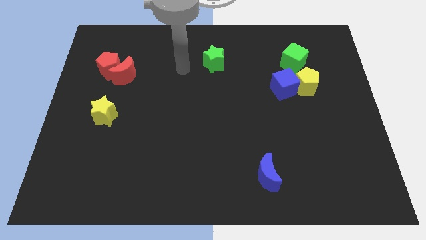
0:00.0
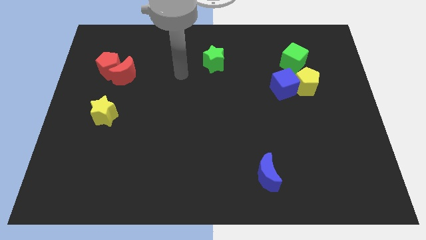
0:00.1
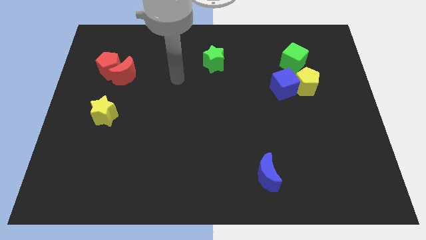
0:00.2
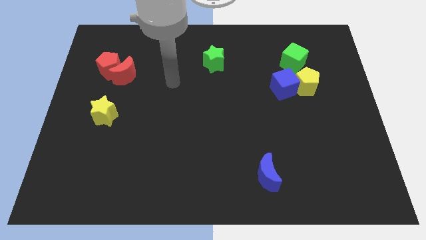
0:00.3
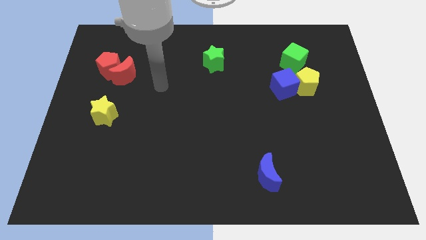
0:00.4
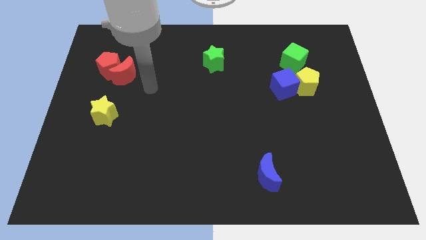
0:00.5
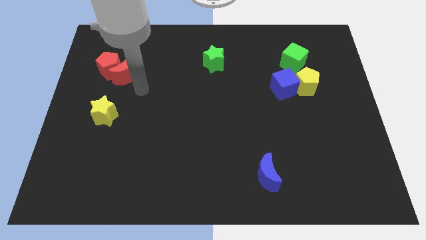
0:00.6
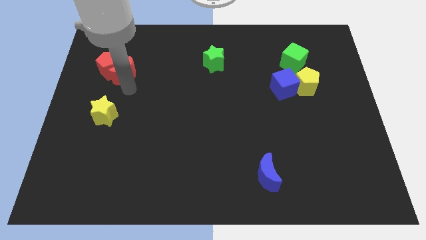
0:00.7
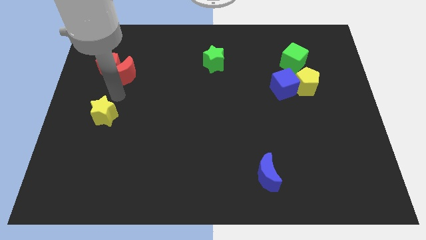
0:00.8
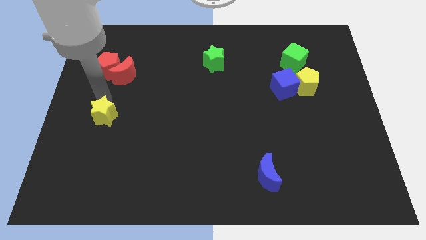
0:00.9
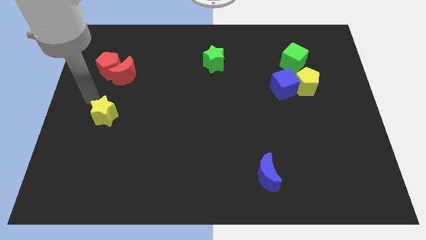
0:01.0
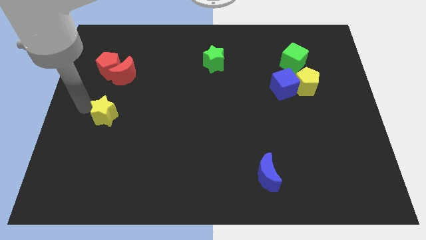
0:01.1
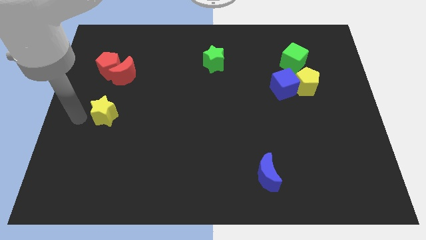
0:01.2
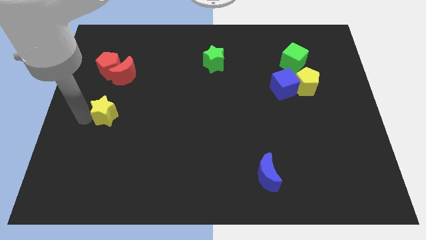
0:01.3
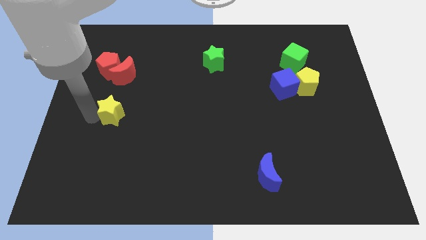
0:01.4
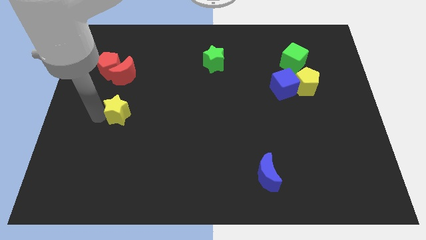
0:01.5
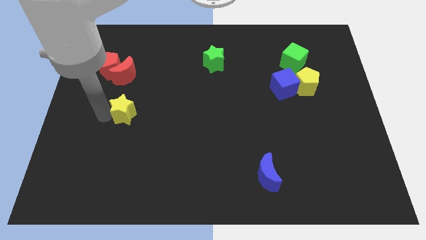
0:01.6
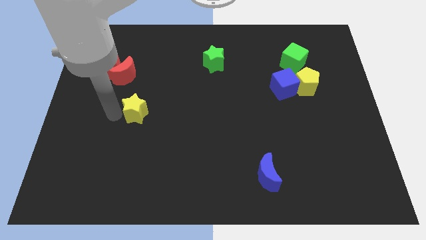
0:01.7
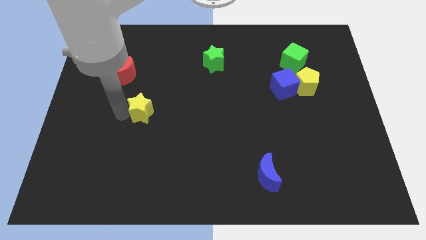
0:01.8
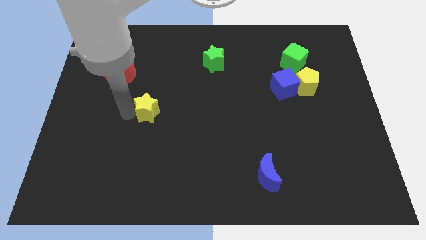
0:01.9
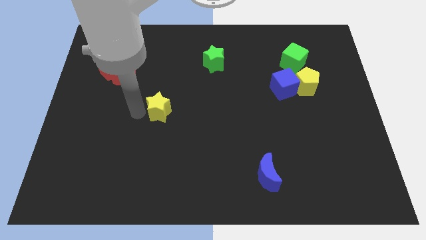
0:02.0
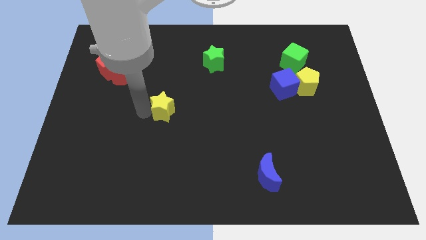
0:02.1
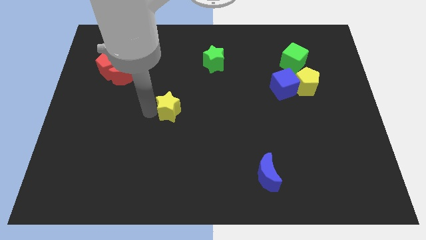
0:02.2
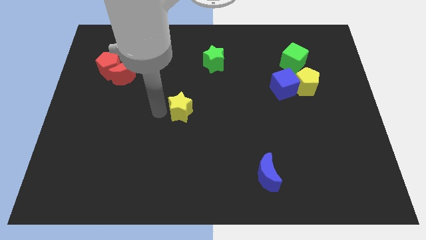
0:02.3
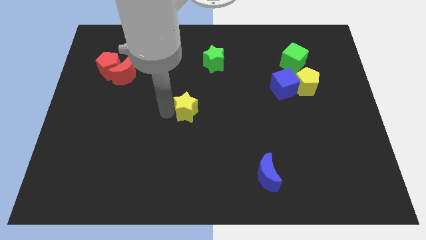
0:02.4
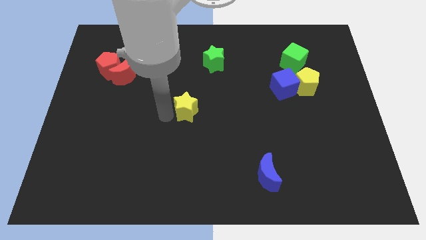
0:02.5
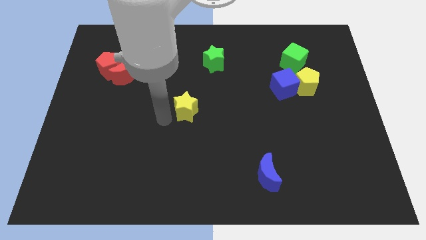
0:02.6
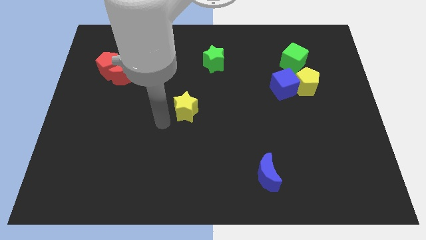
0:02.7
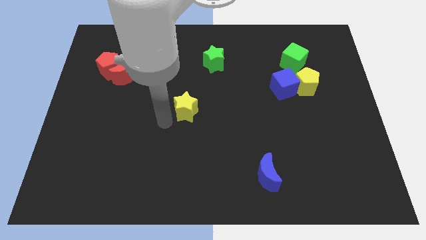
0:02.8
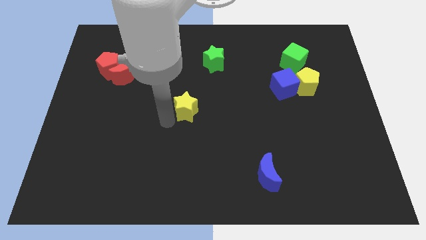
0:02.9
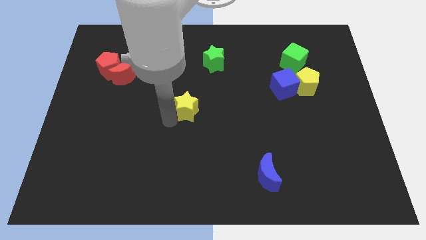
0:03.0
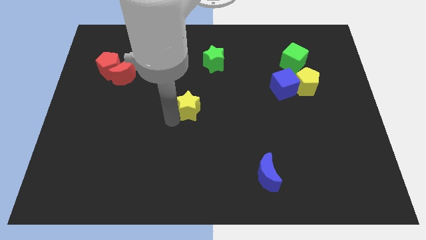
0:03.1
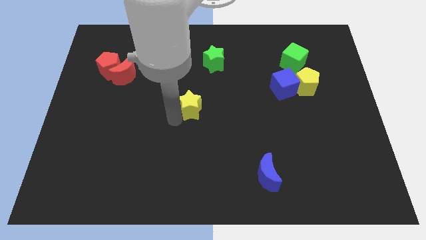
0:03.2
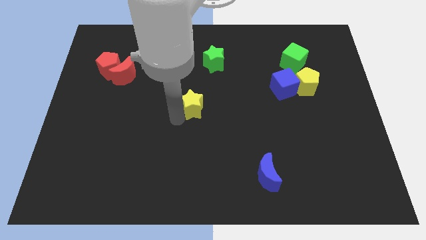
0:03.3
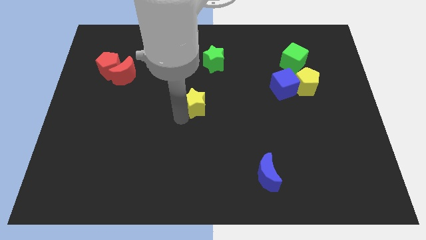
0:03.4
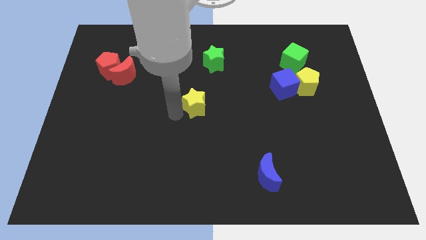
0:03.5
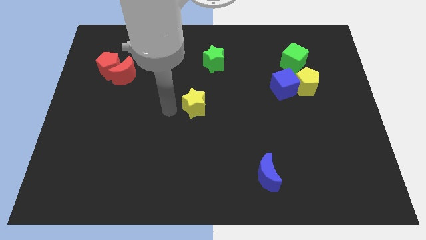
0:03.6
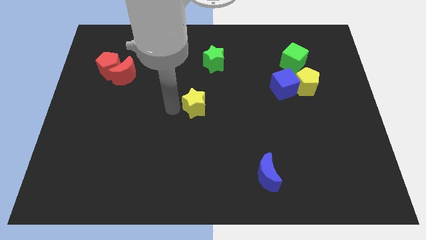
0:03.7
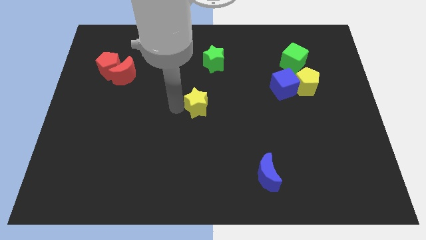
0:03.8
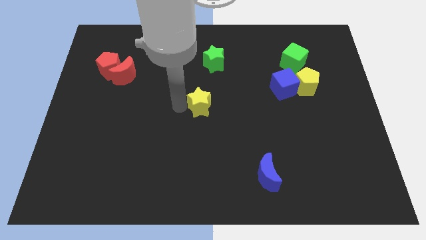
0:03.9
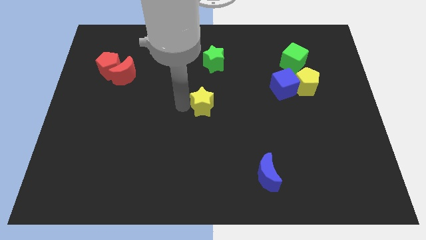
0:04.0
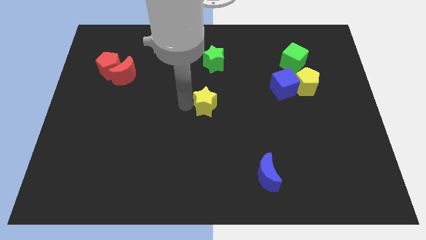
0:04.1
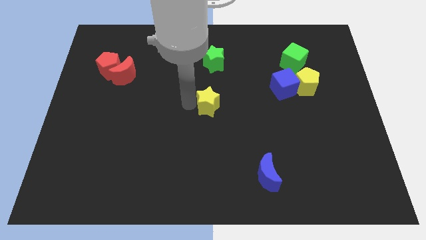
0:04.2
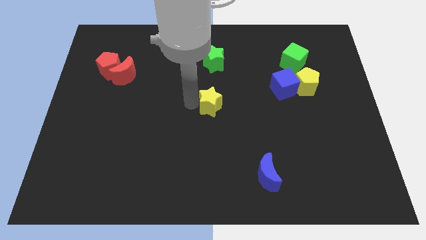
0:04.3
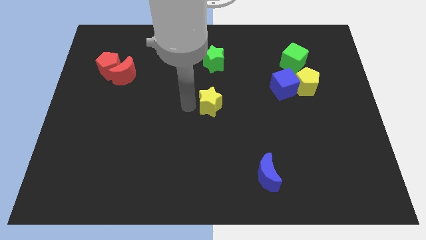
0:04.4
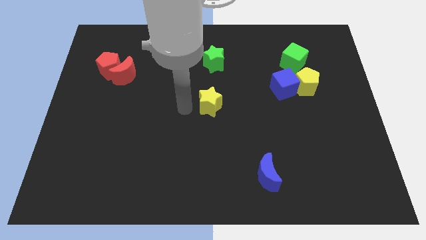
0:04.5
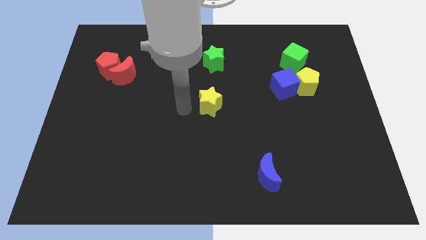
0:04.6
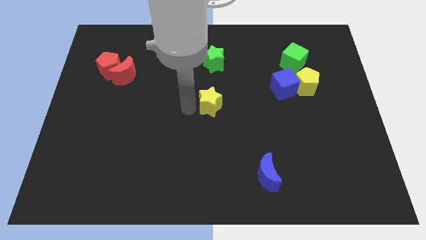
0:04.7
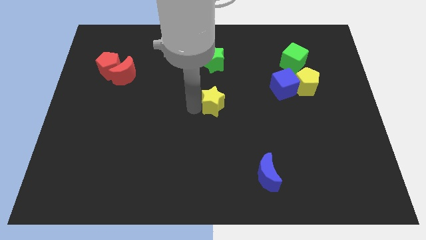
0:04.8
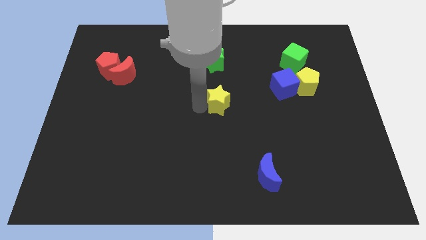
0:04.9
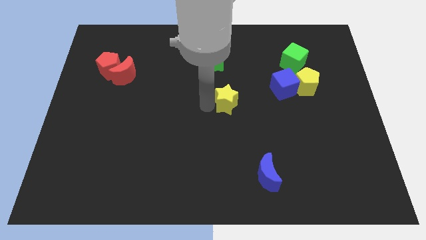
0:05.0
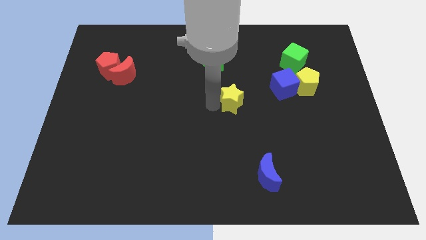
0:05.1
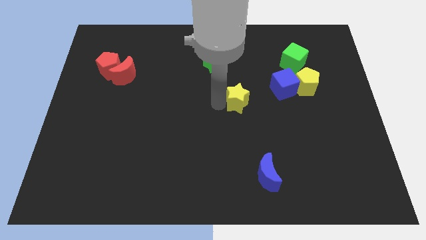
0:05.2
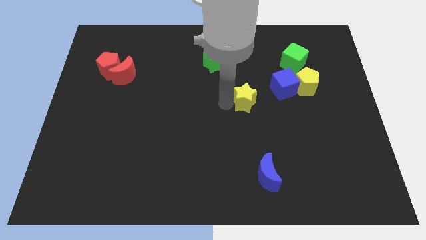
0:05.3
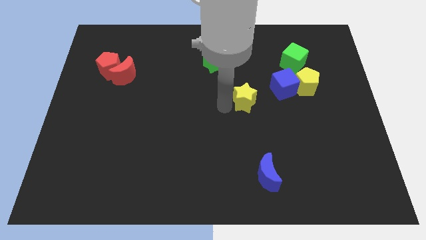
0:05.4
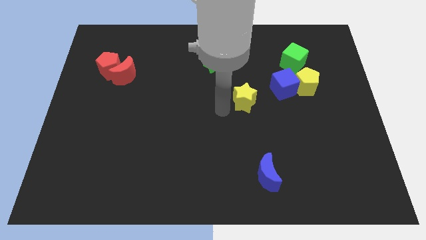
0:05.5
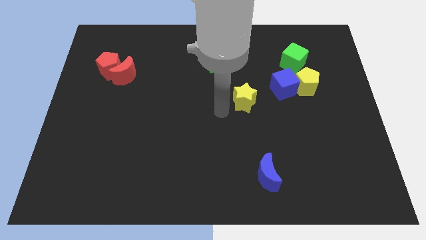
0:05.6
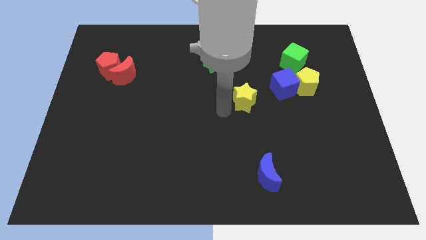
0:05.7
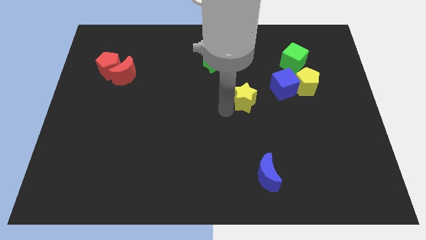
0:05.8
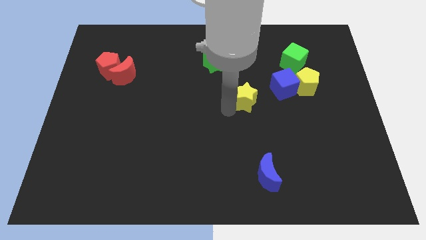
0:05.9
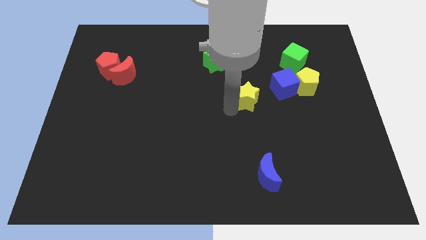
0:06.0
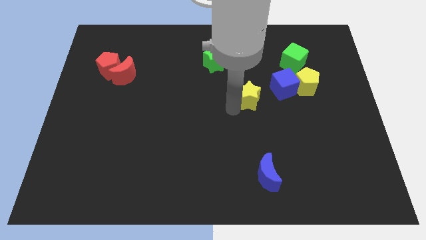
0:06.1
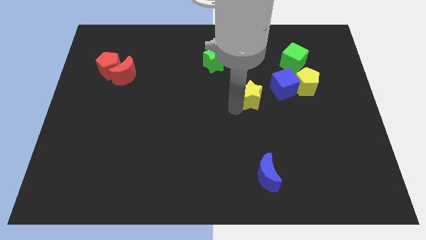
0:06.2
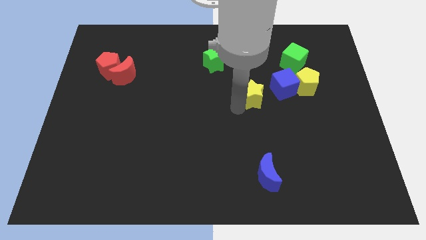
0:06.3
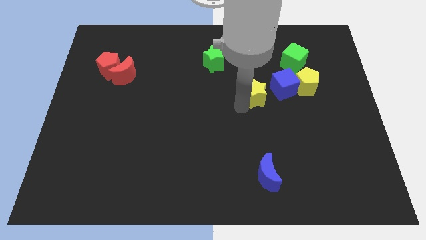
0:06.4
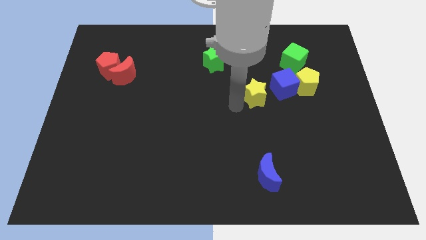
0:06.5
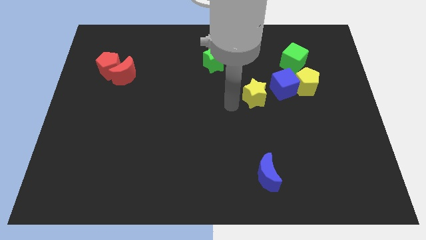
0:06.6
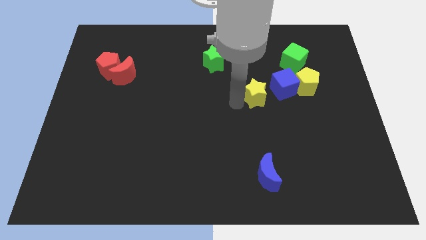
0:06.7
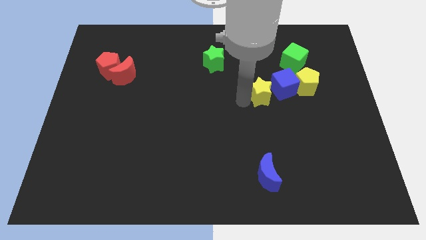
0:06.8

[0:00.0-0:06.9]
push the yellow star towards the blue cube

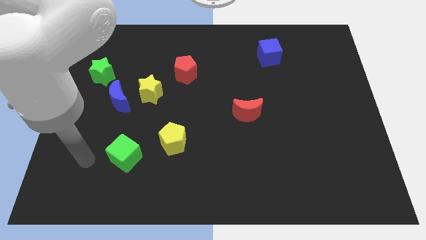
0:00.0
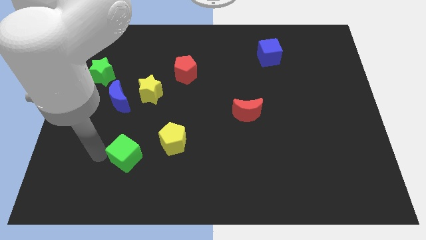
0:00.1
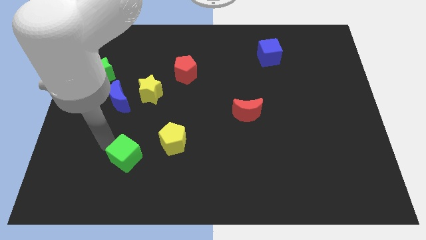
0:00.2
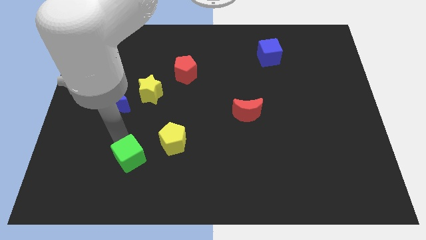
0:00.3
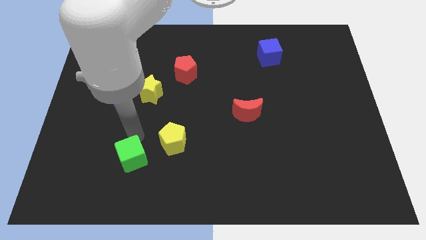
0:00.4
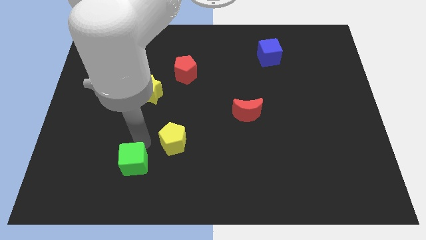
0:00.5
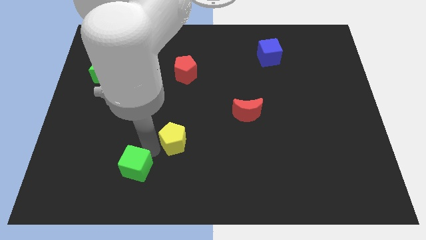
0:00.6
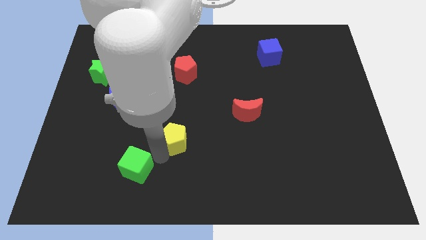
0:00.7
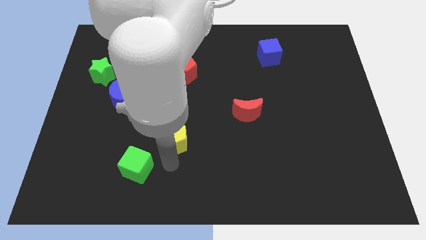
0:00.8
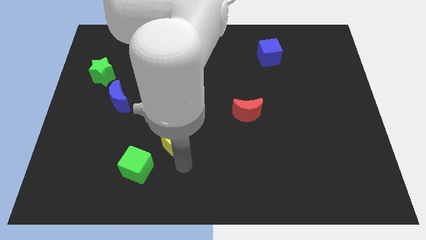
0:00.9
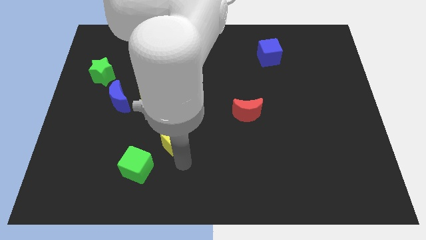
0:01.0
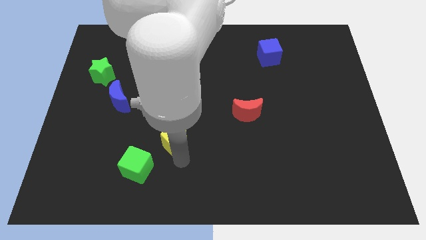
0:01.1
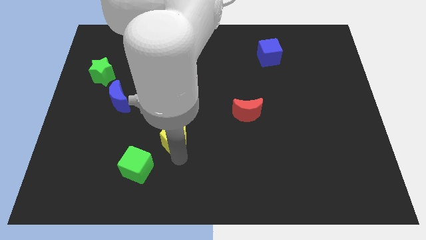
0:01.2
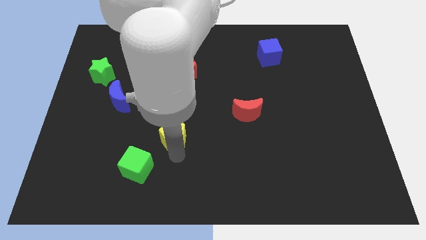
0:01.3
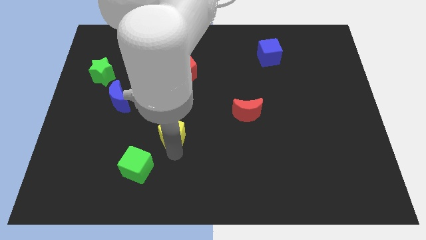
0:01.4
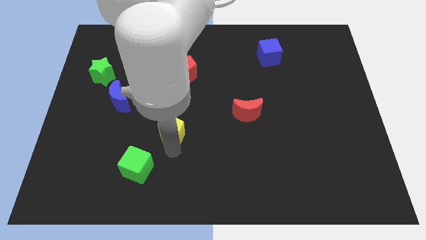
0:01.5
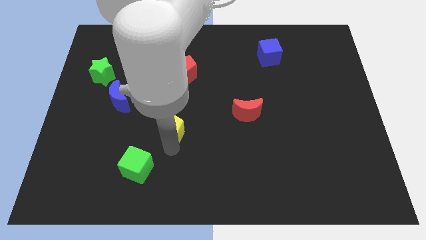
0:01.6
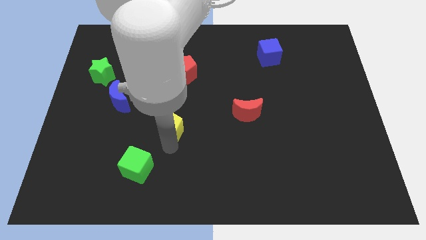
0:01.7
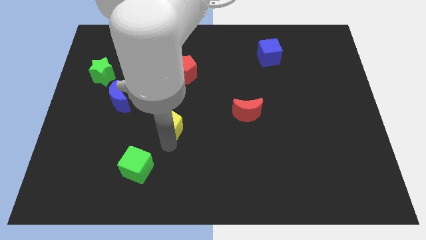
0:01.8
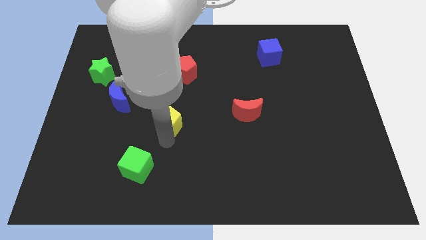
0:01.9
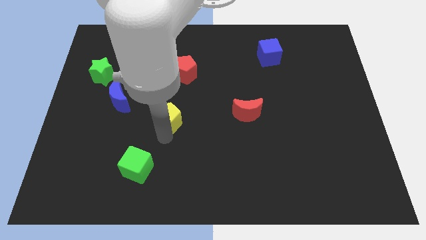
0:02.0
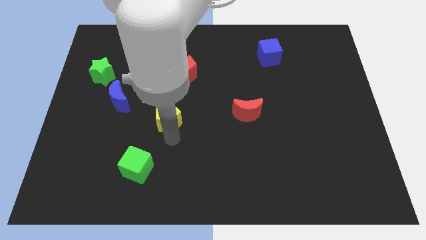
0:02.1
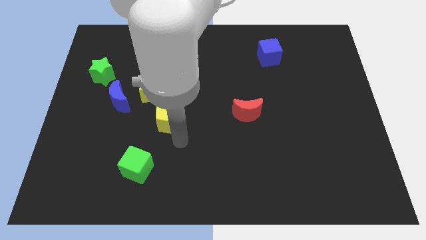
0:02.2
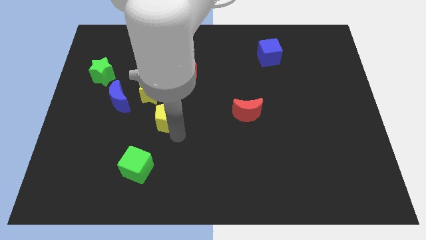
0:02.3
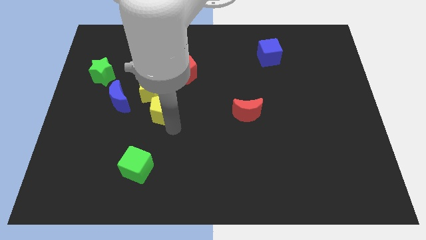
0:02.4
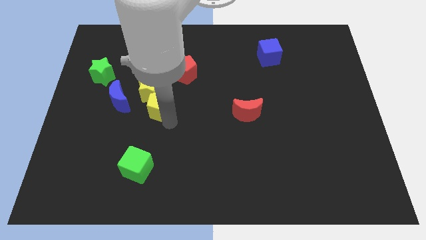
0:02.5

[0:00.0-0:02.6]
put the yellow pentagon close to the yellow star
